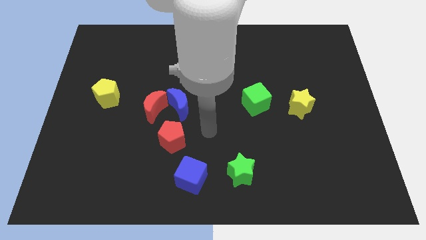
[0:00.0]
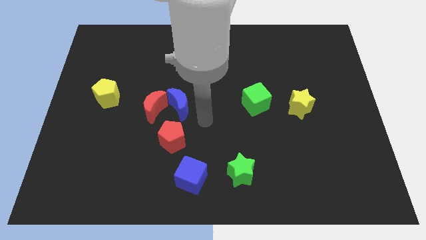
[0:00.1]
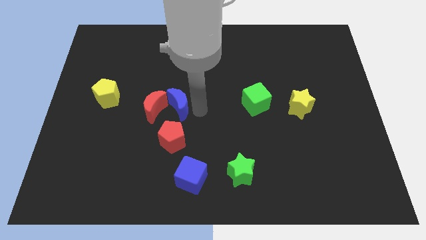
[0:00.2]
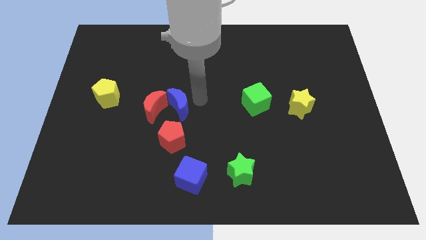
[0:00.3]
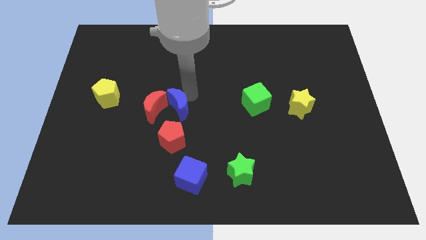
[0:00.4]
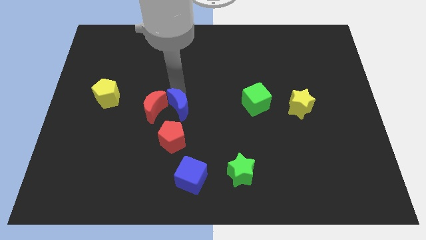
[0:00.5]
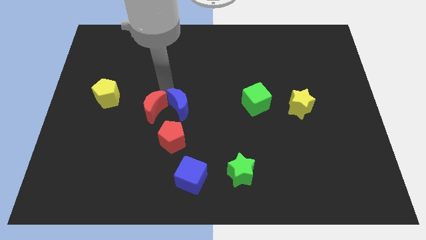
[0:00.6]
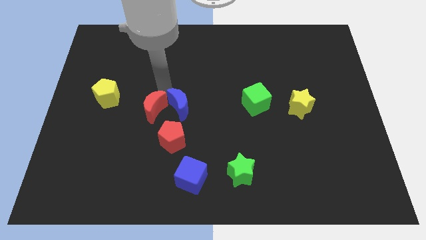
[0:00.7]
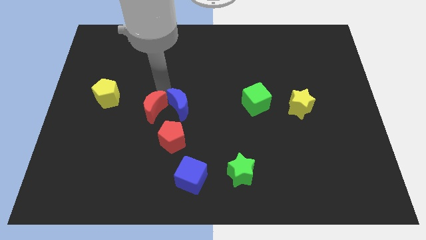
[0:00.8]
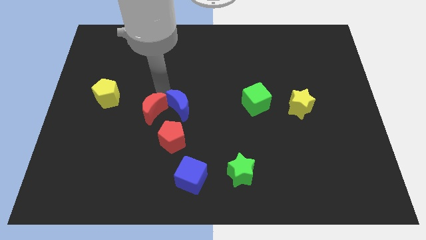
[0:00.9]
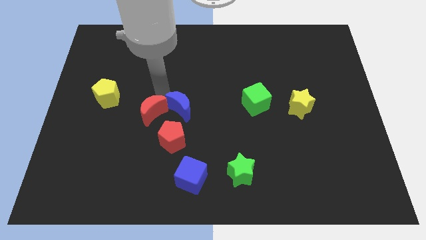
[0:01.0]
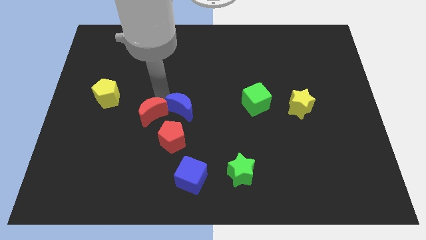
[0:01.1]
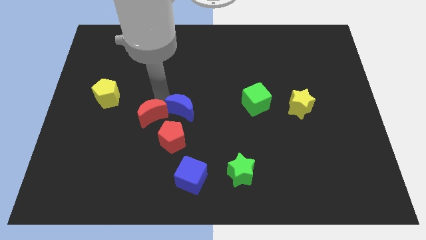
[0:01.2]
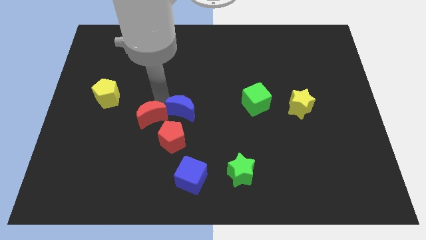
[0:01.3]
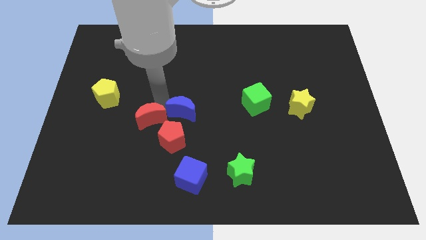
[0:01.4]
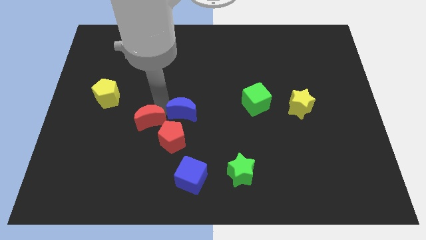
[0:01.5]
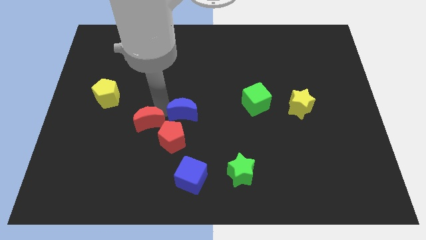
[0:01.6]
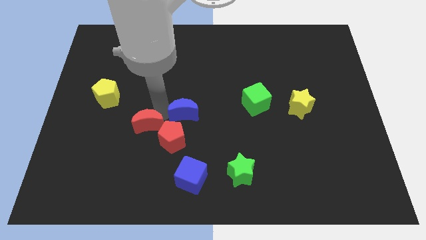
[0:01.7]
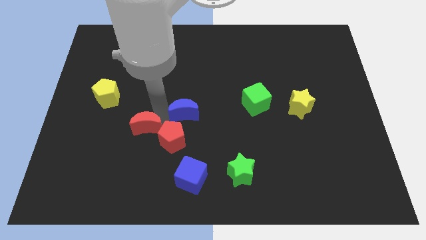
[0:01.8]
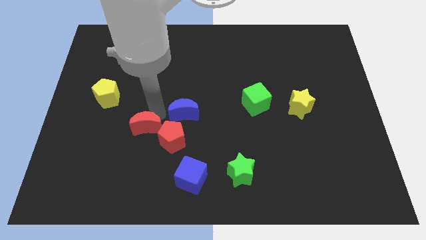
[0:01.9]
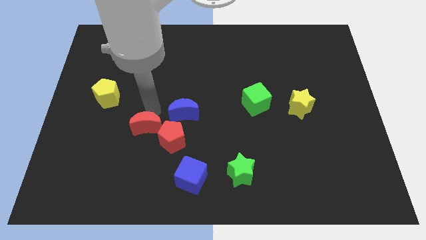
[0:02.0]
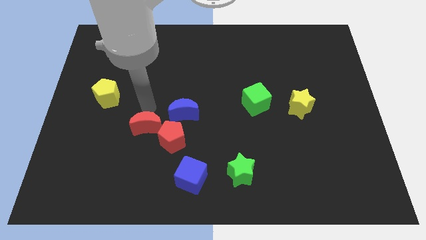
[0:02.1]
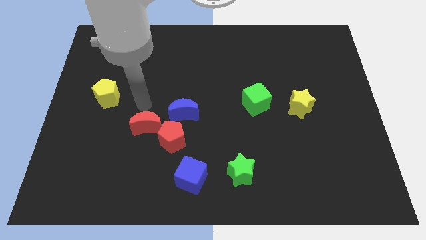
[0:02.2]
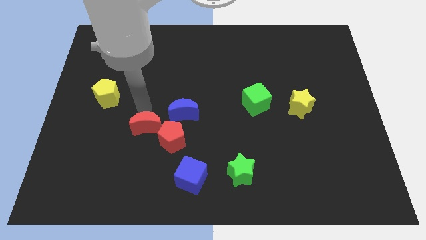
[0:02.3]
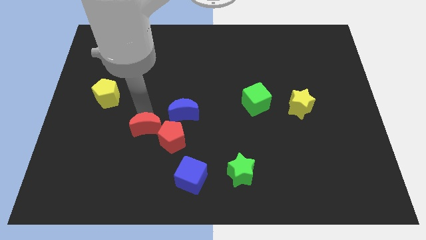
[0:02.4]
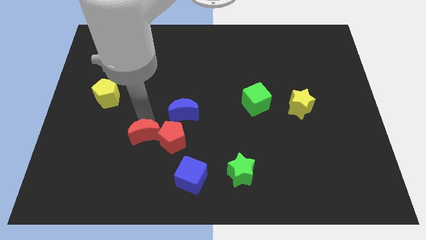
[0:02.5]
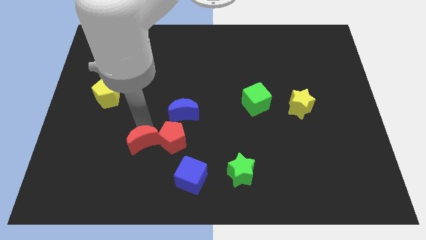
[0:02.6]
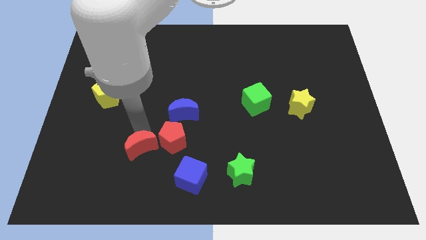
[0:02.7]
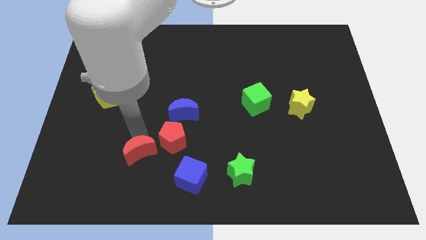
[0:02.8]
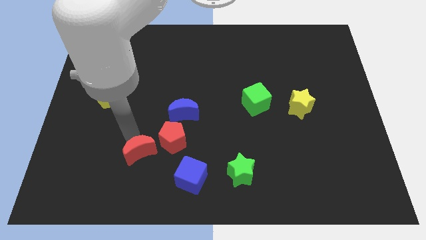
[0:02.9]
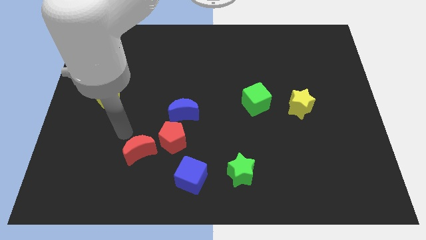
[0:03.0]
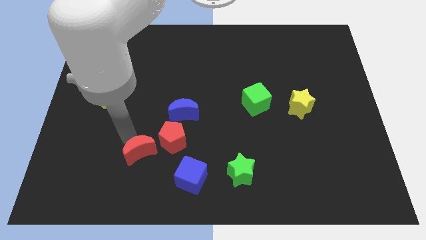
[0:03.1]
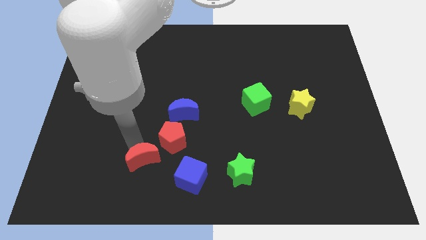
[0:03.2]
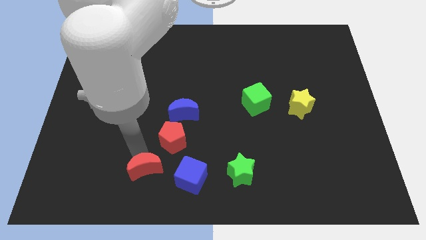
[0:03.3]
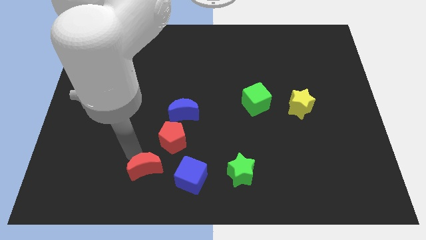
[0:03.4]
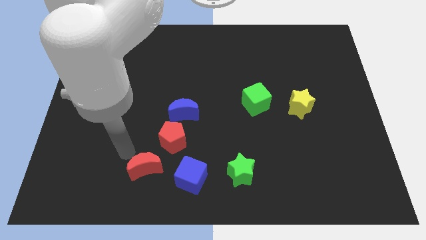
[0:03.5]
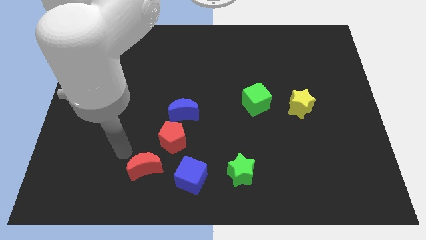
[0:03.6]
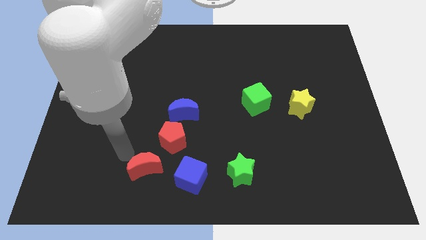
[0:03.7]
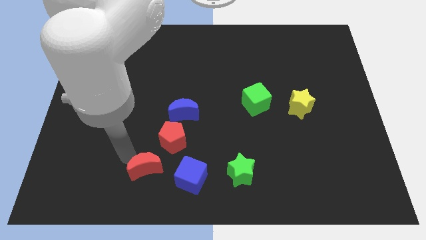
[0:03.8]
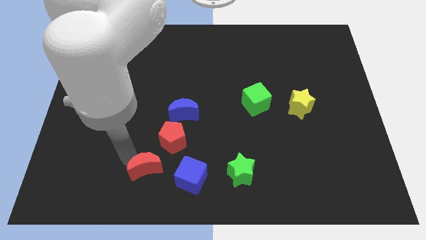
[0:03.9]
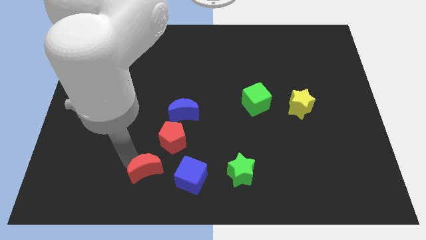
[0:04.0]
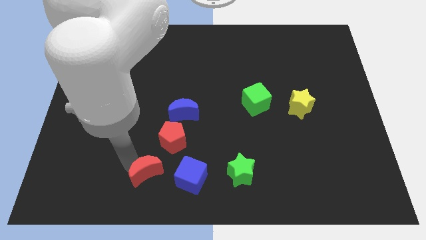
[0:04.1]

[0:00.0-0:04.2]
put the red moon to the bottom side of the red pentagon

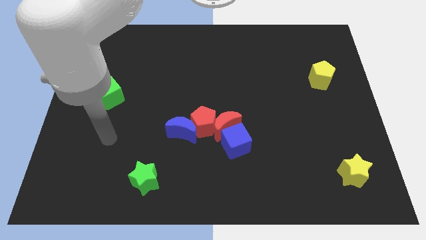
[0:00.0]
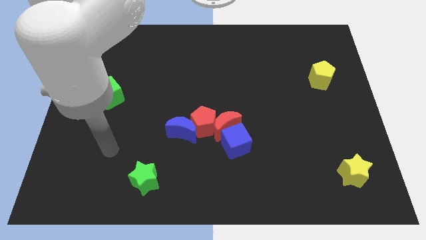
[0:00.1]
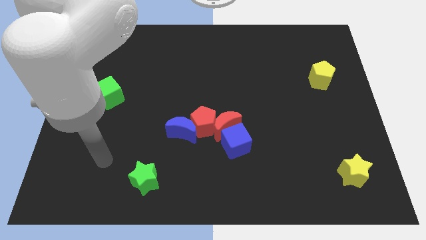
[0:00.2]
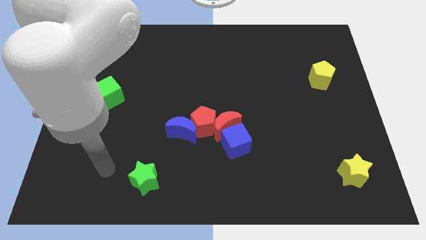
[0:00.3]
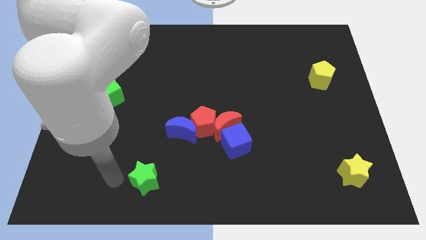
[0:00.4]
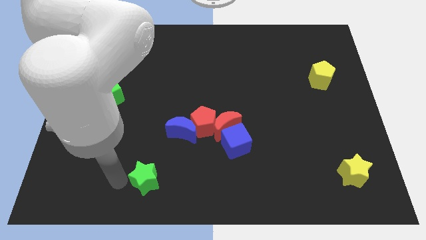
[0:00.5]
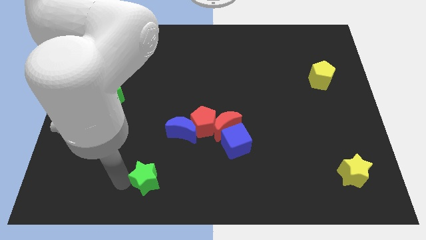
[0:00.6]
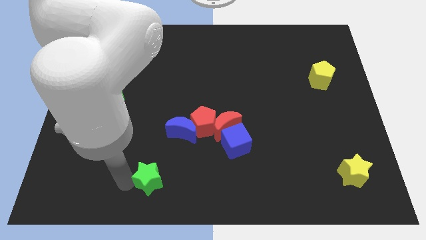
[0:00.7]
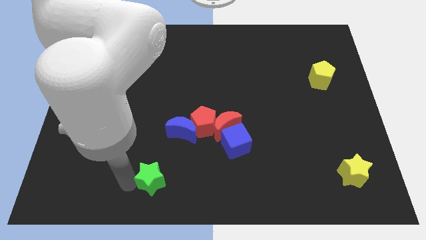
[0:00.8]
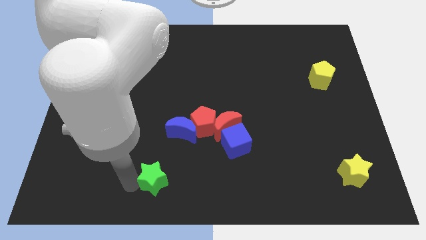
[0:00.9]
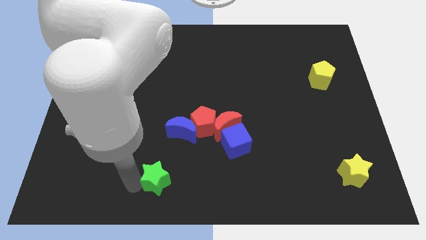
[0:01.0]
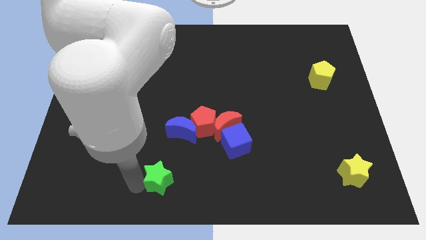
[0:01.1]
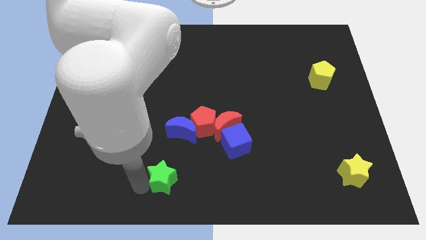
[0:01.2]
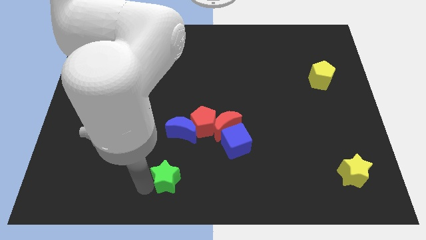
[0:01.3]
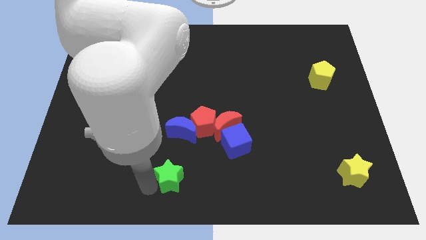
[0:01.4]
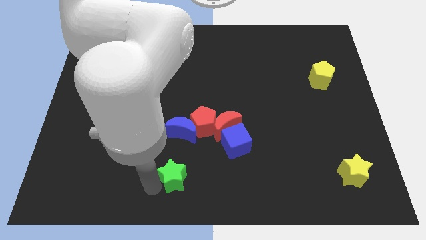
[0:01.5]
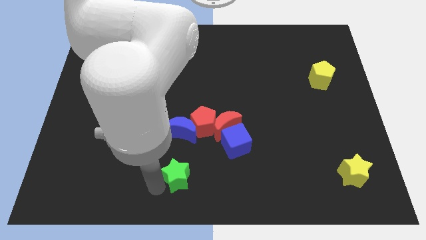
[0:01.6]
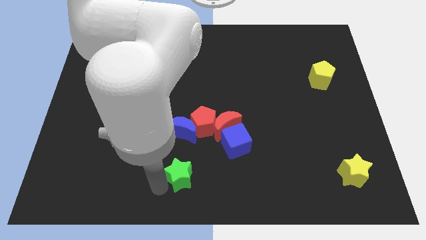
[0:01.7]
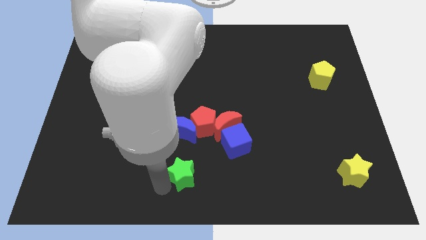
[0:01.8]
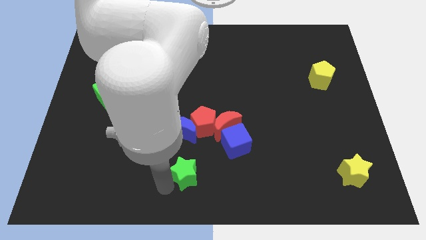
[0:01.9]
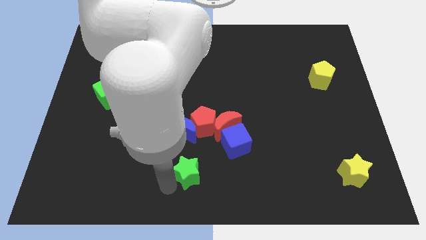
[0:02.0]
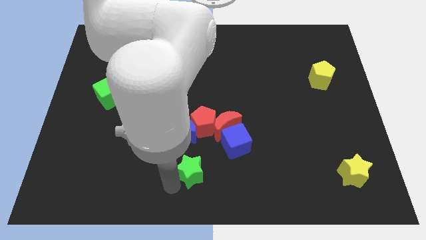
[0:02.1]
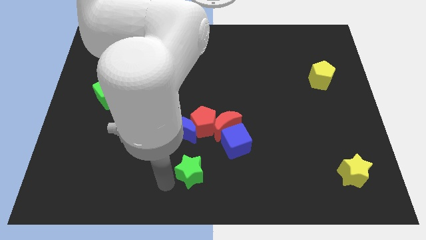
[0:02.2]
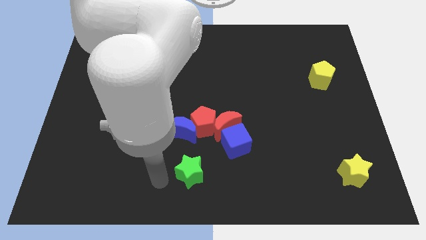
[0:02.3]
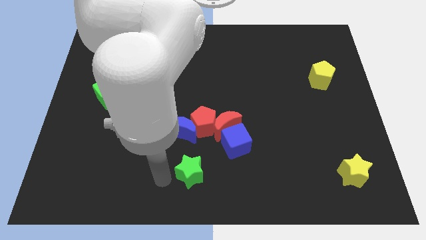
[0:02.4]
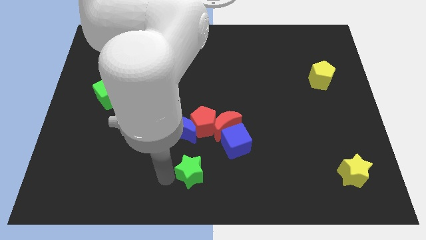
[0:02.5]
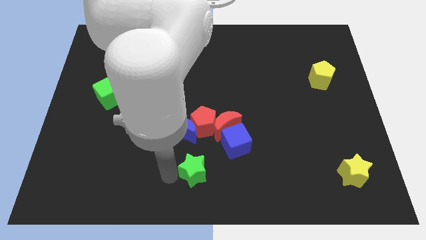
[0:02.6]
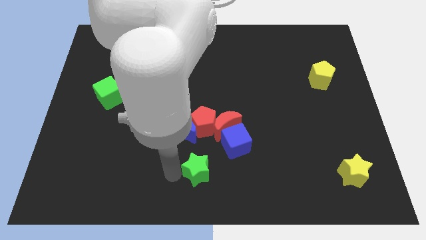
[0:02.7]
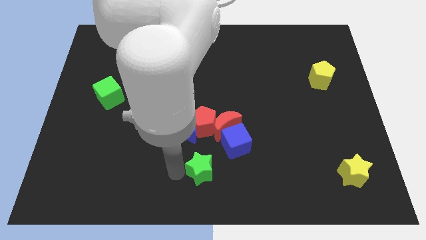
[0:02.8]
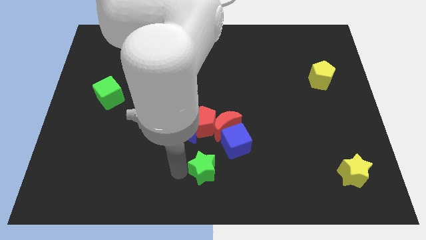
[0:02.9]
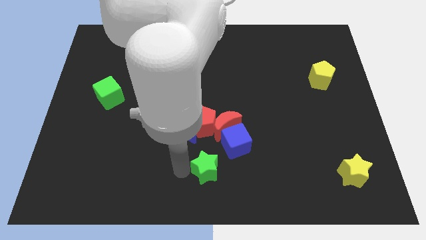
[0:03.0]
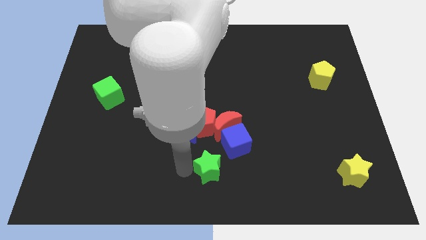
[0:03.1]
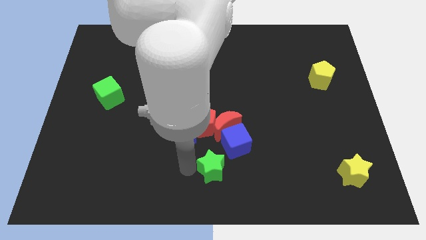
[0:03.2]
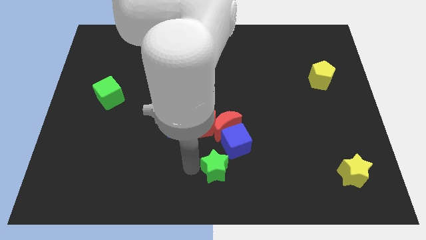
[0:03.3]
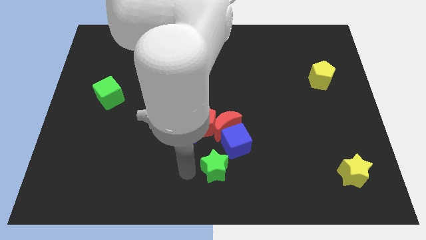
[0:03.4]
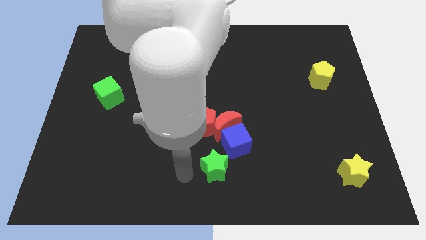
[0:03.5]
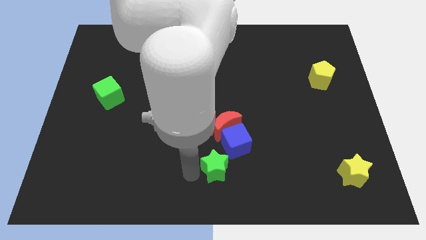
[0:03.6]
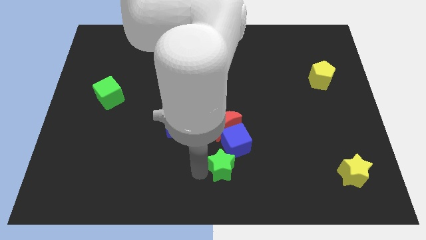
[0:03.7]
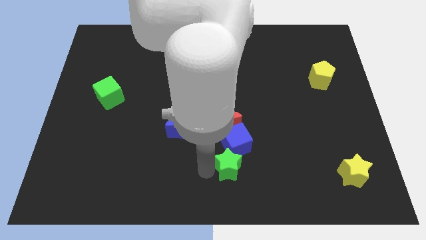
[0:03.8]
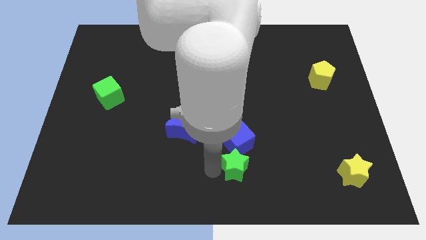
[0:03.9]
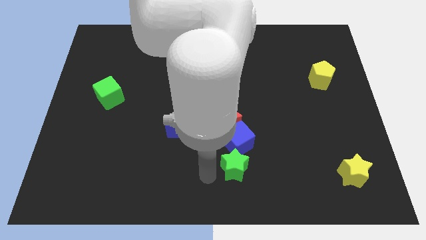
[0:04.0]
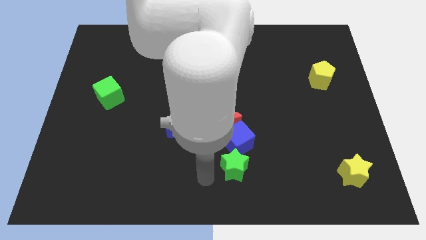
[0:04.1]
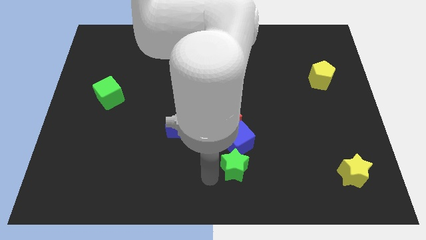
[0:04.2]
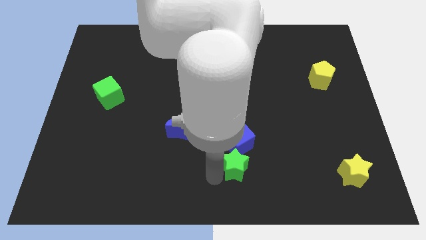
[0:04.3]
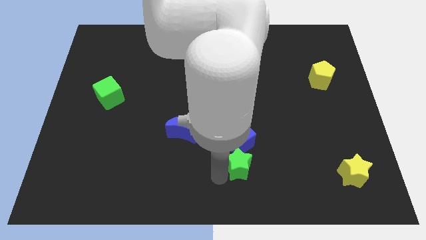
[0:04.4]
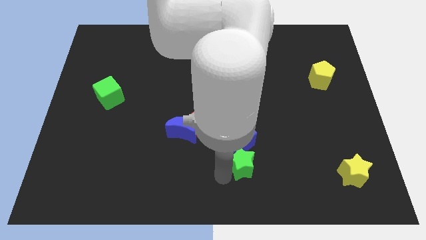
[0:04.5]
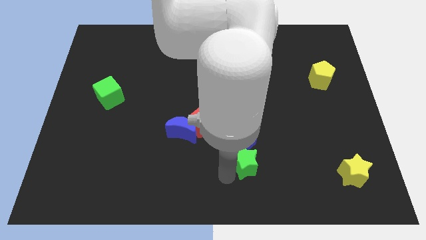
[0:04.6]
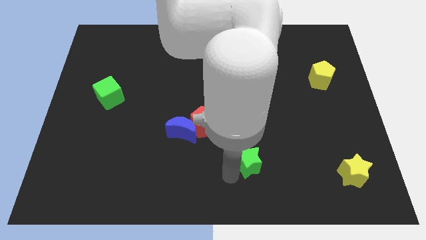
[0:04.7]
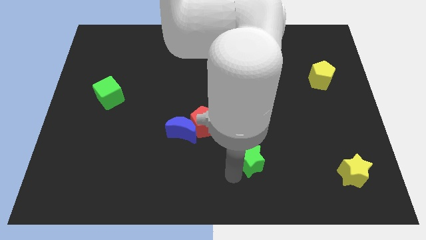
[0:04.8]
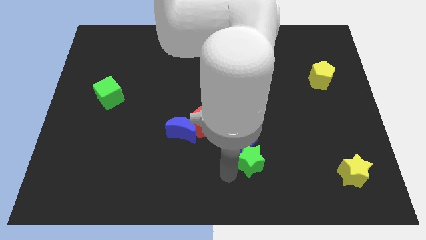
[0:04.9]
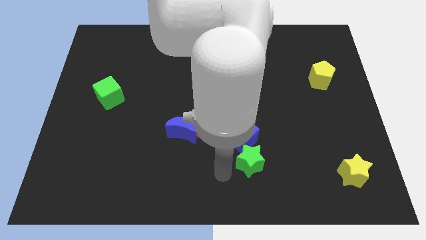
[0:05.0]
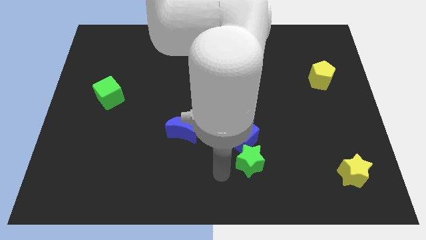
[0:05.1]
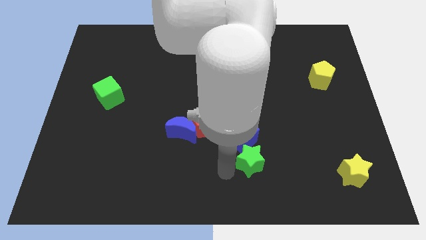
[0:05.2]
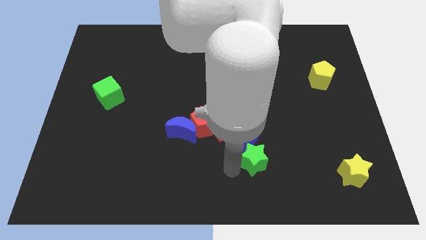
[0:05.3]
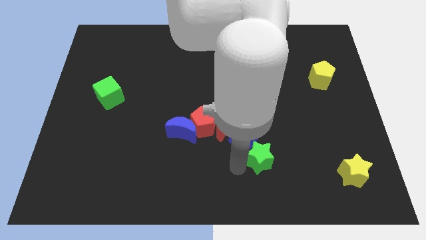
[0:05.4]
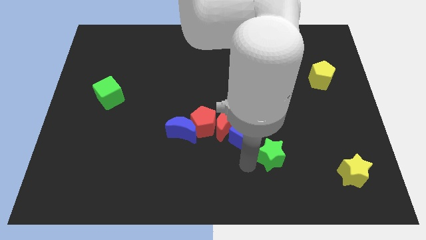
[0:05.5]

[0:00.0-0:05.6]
slide the green star to the right of the blue cube
